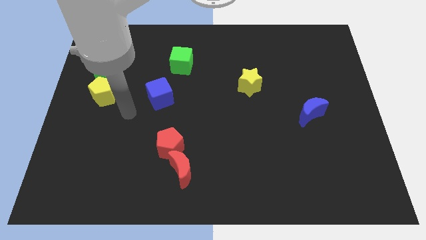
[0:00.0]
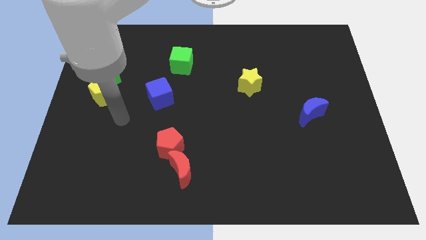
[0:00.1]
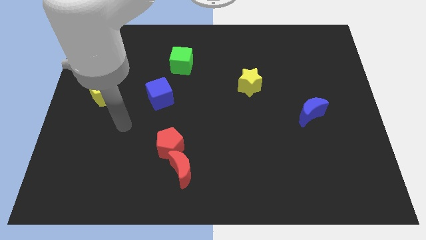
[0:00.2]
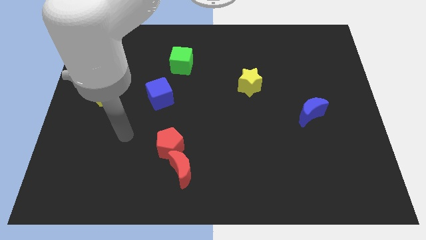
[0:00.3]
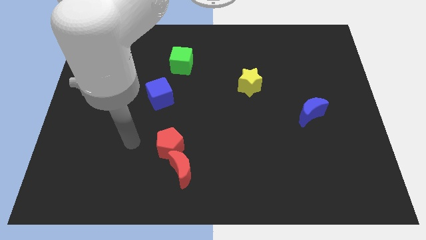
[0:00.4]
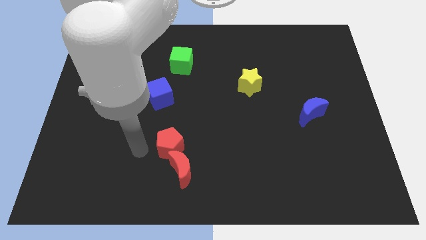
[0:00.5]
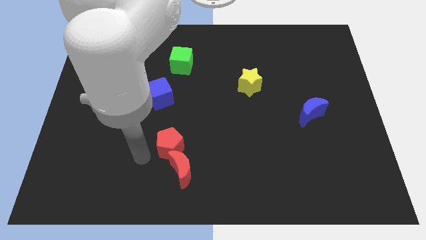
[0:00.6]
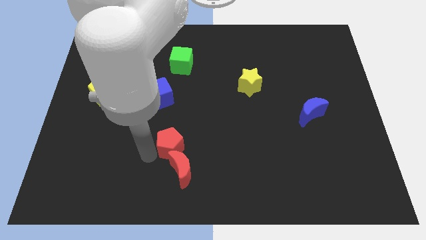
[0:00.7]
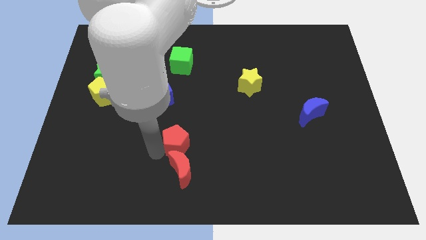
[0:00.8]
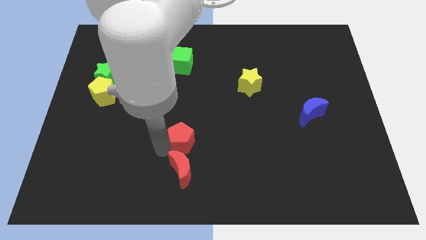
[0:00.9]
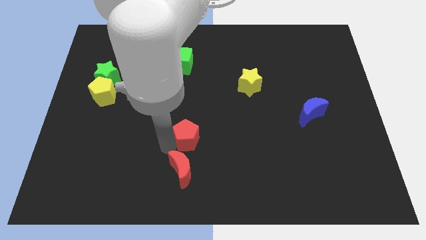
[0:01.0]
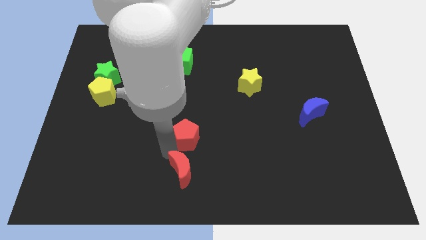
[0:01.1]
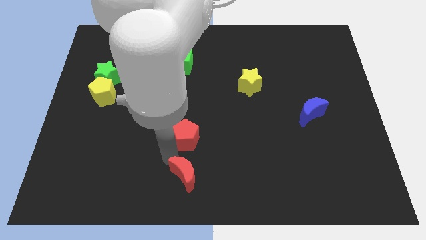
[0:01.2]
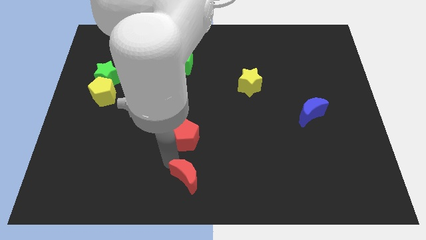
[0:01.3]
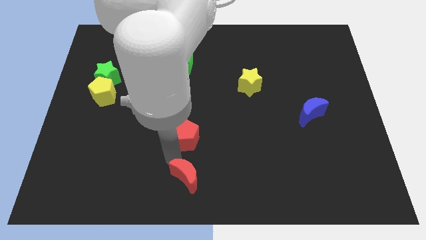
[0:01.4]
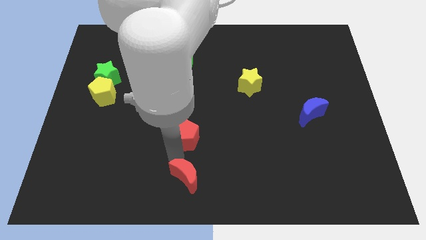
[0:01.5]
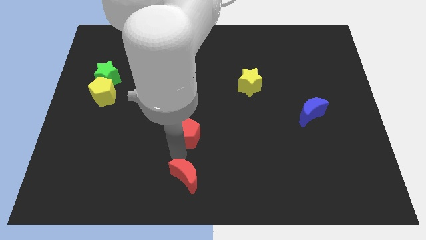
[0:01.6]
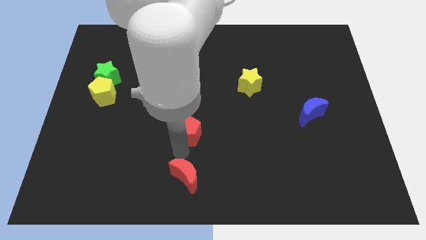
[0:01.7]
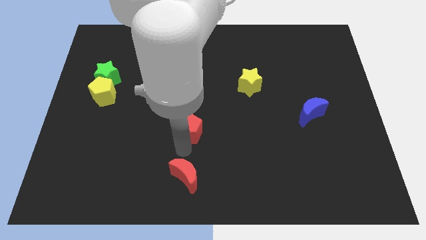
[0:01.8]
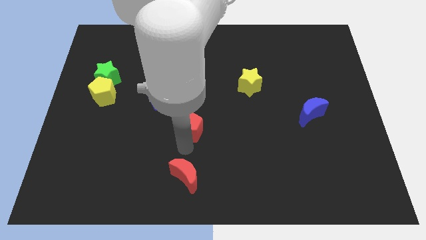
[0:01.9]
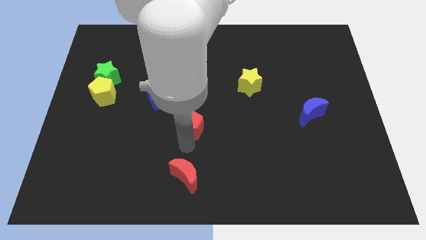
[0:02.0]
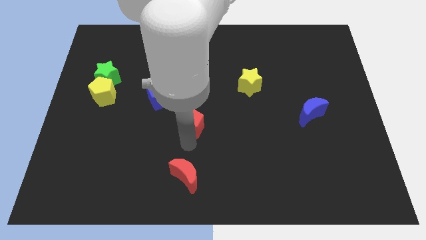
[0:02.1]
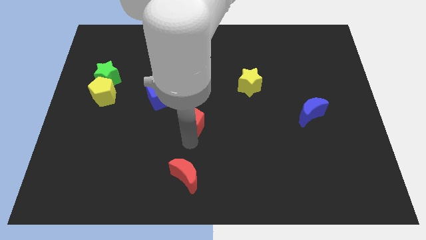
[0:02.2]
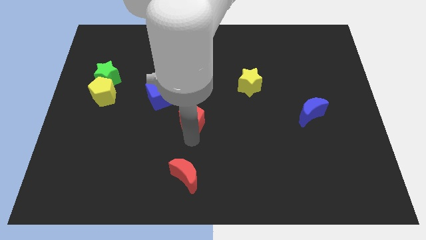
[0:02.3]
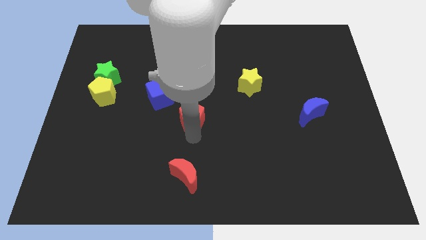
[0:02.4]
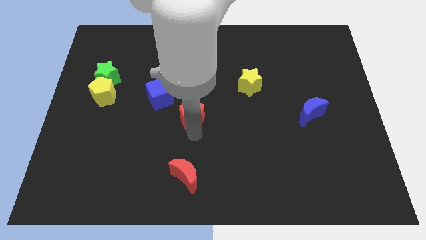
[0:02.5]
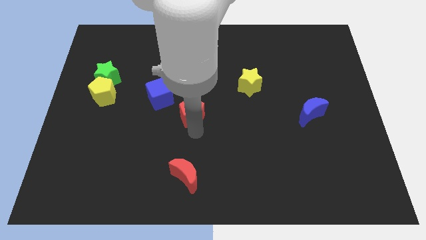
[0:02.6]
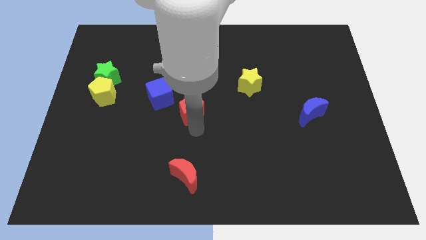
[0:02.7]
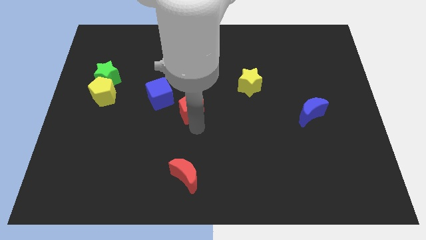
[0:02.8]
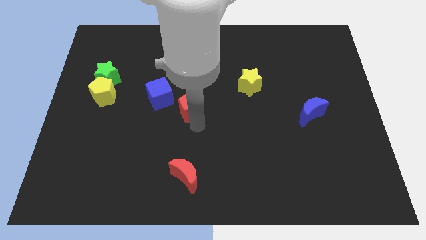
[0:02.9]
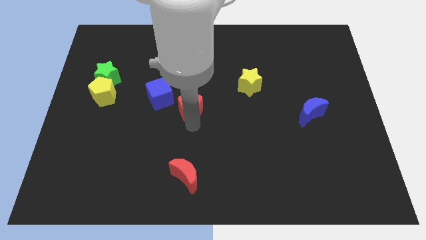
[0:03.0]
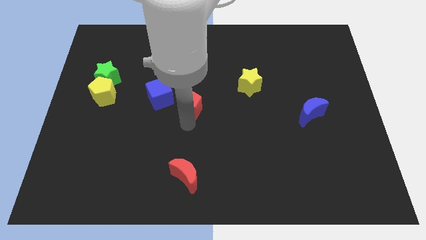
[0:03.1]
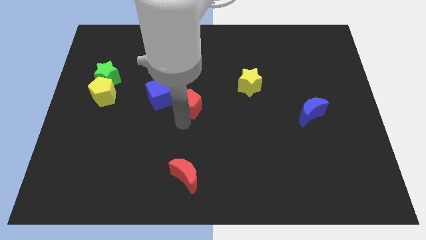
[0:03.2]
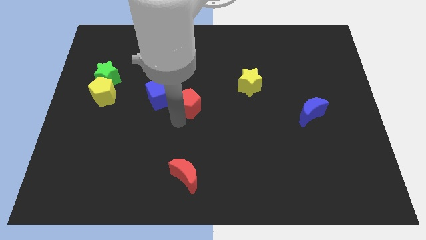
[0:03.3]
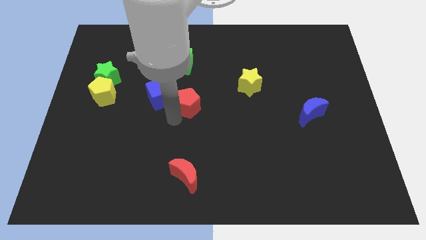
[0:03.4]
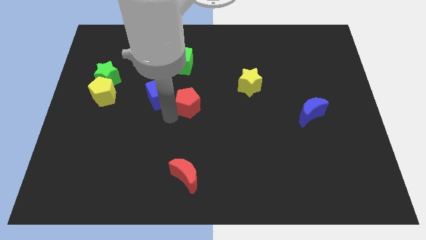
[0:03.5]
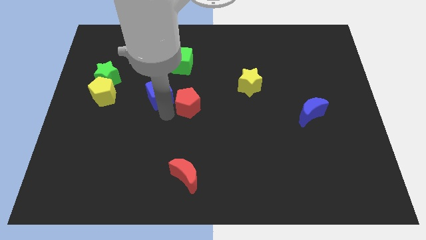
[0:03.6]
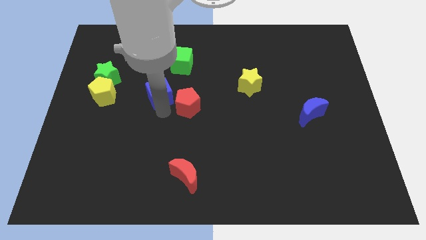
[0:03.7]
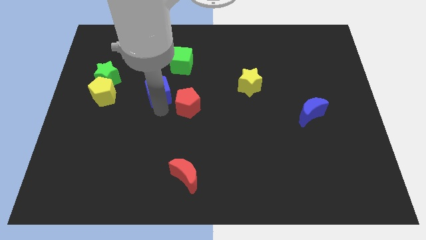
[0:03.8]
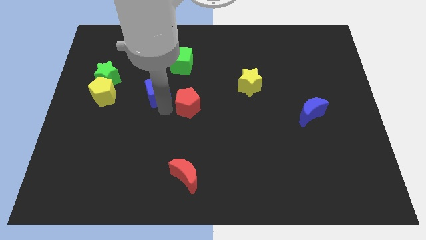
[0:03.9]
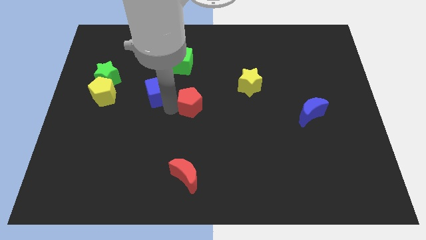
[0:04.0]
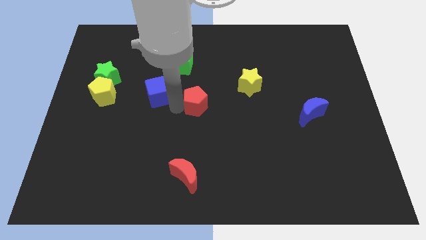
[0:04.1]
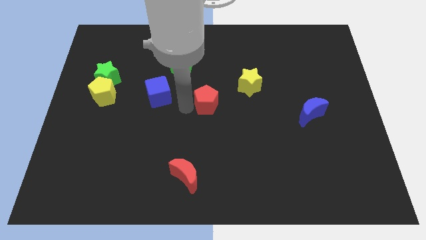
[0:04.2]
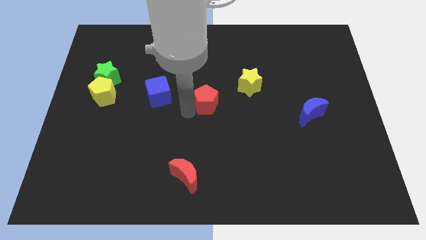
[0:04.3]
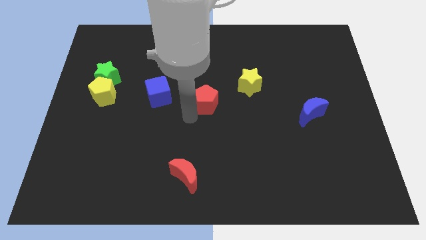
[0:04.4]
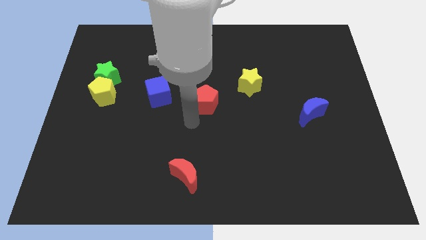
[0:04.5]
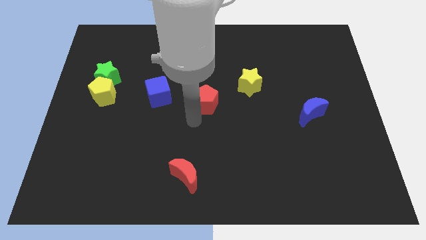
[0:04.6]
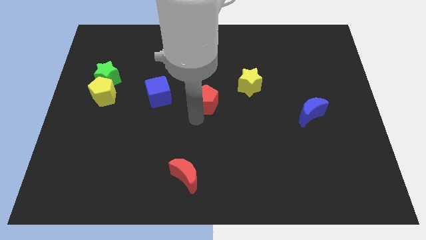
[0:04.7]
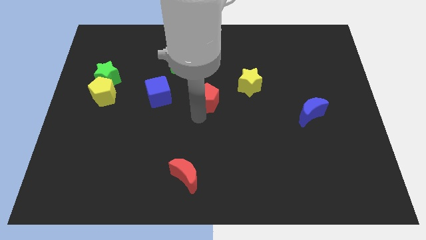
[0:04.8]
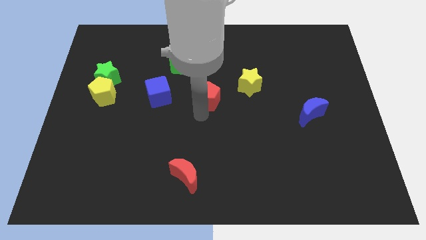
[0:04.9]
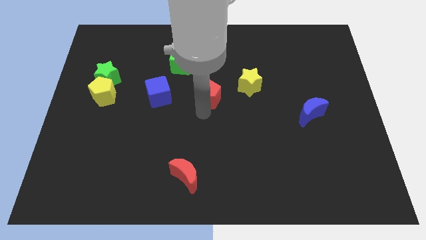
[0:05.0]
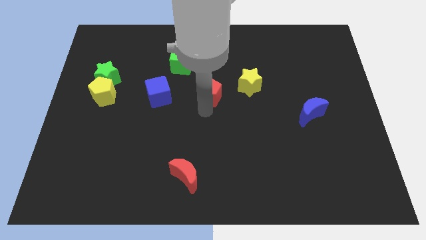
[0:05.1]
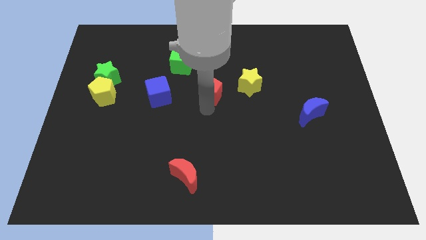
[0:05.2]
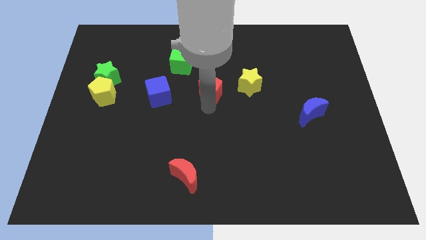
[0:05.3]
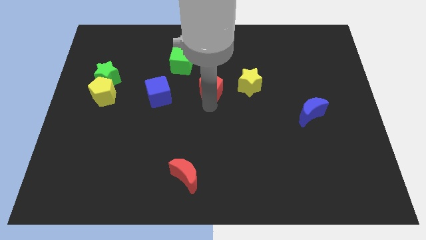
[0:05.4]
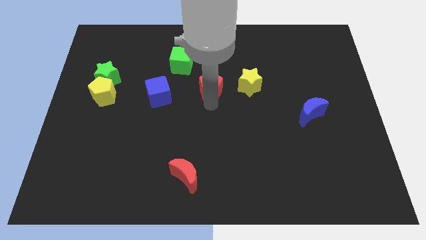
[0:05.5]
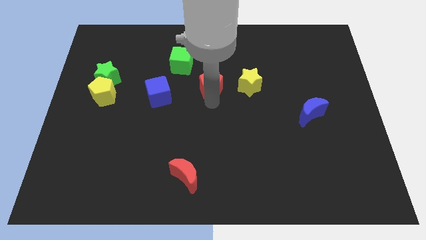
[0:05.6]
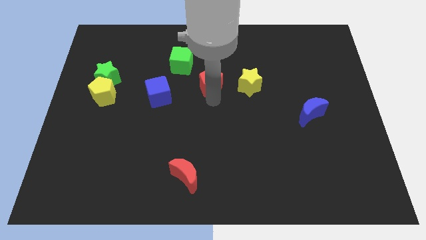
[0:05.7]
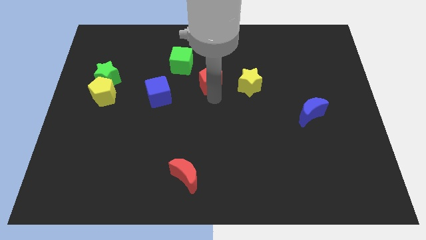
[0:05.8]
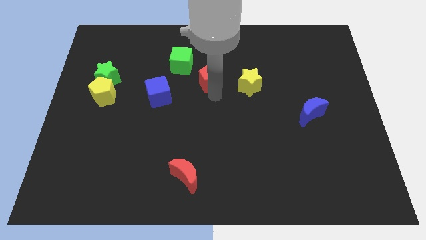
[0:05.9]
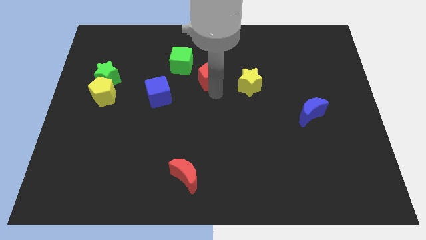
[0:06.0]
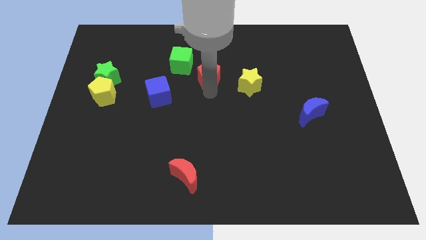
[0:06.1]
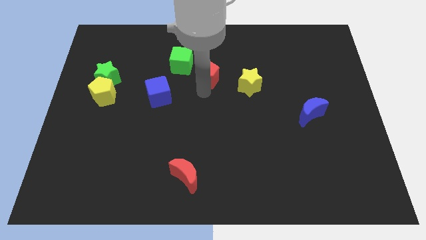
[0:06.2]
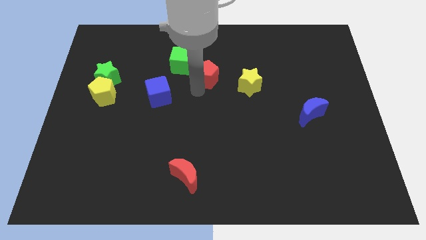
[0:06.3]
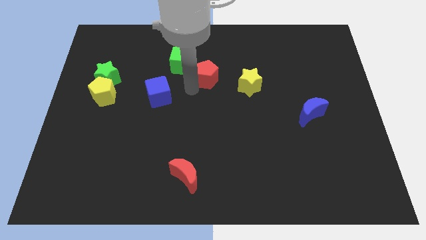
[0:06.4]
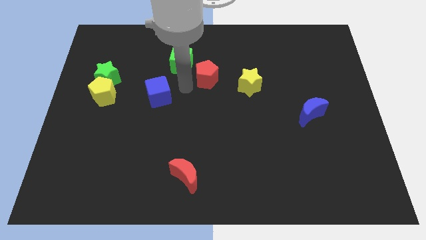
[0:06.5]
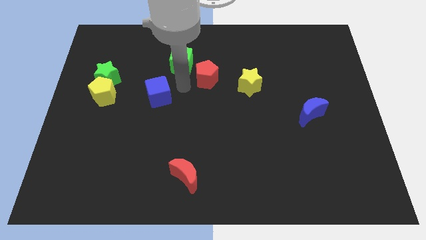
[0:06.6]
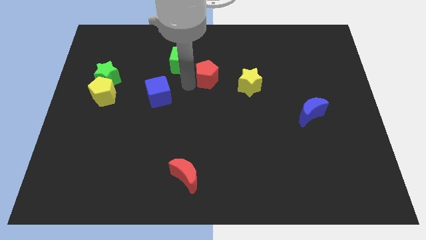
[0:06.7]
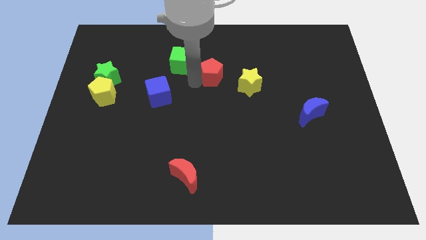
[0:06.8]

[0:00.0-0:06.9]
move the red pentagon diagonally up and to the left of the yellow star

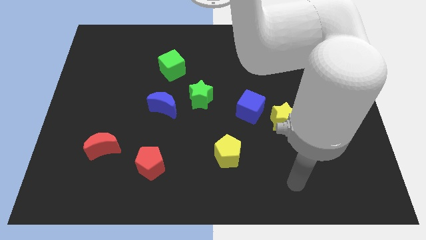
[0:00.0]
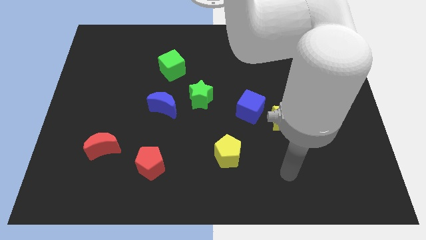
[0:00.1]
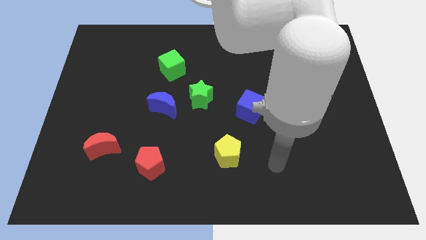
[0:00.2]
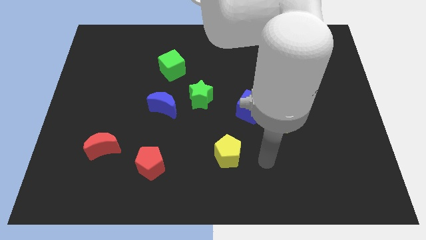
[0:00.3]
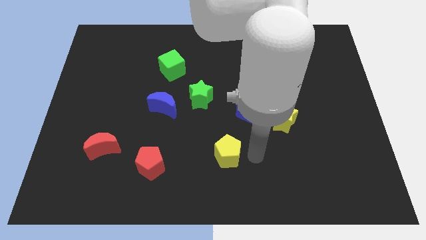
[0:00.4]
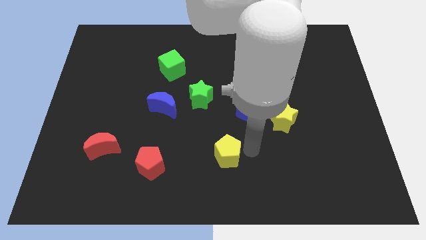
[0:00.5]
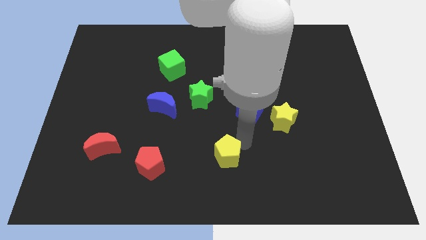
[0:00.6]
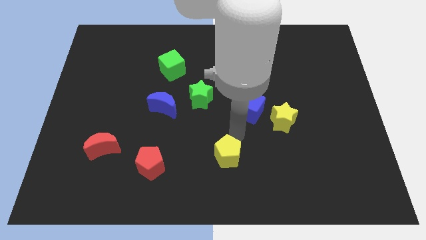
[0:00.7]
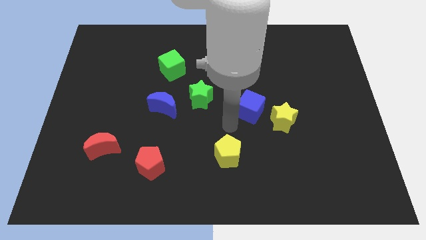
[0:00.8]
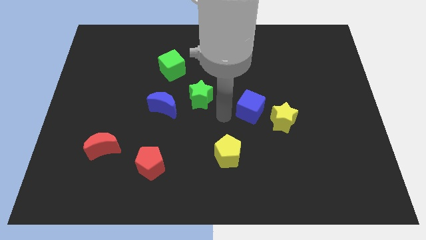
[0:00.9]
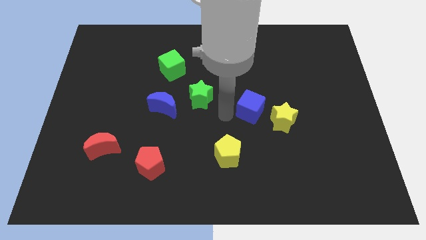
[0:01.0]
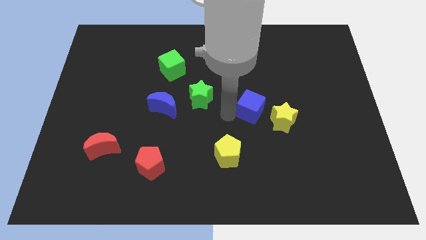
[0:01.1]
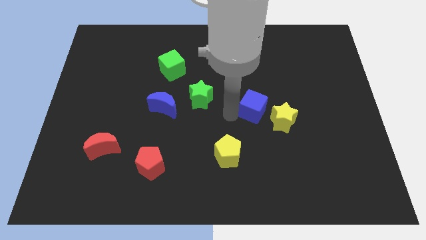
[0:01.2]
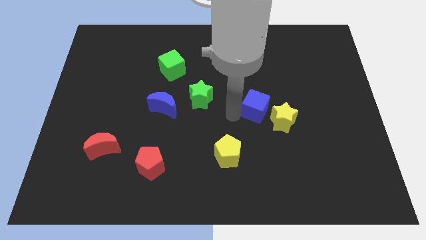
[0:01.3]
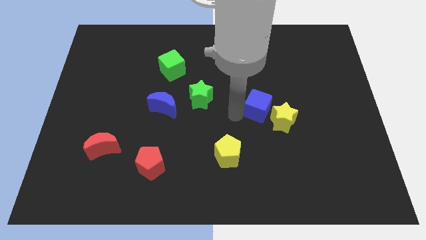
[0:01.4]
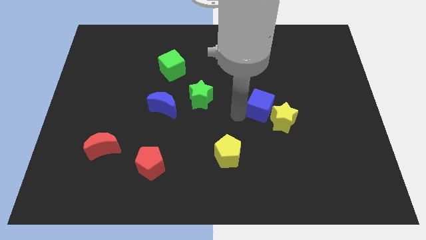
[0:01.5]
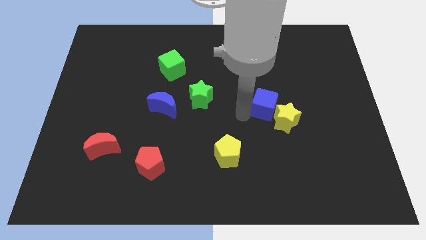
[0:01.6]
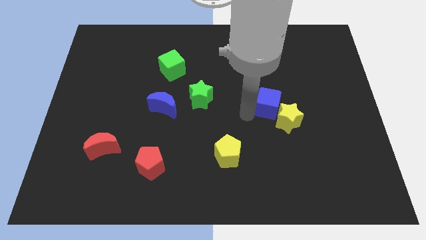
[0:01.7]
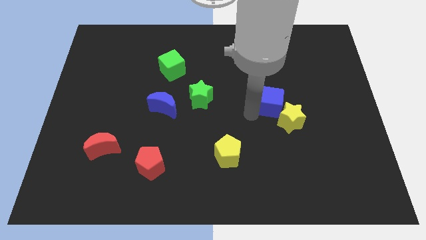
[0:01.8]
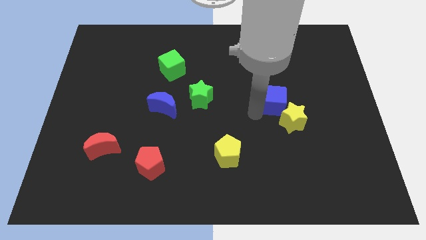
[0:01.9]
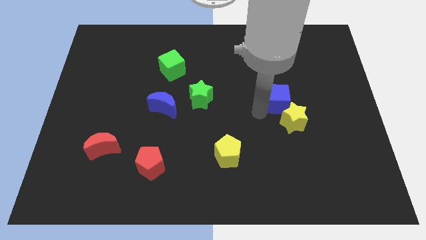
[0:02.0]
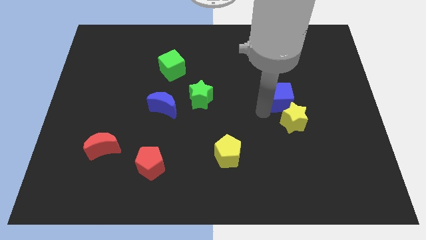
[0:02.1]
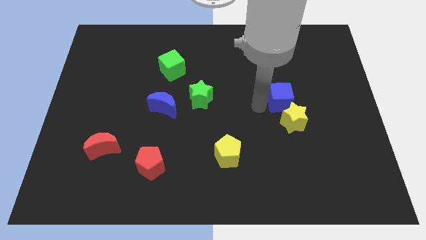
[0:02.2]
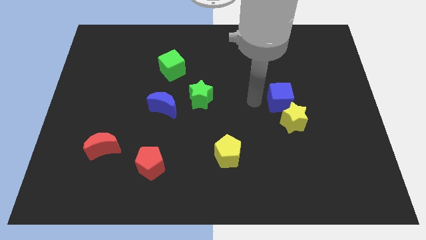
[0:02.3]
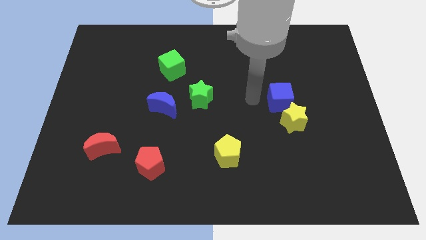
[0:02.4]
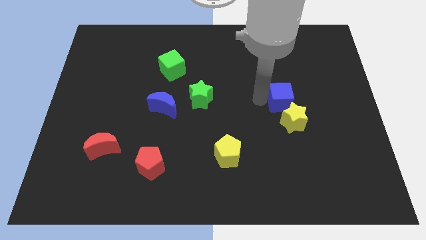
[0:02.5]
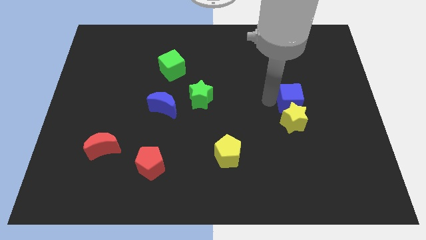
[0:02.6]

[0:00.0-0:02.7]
push the blue cube to the top right side of the yellow star
